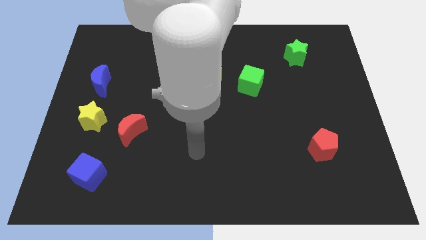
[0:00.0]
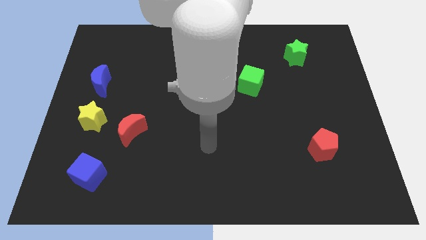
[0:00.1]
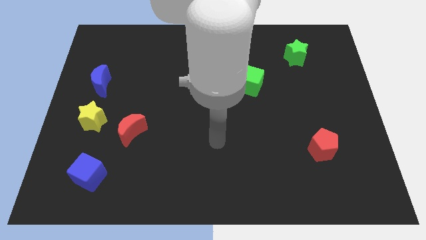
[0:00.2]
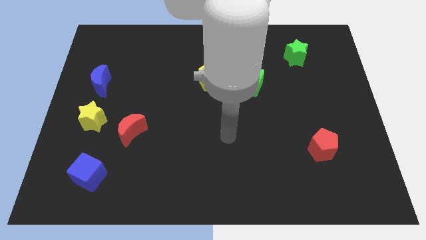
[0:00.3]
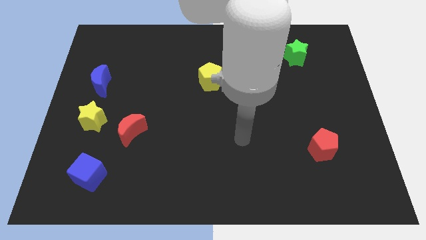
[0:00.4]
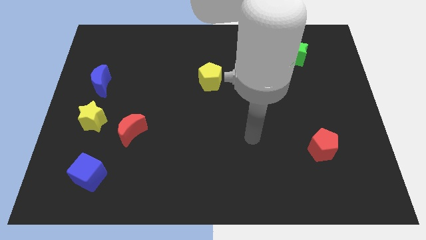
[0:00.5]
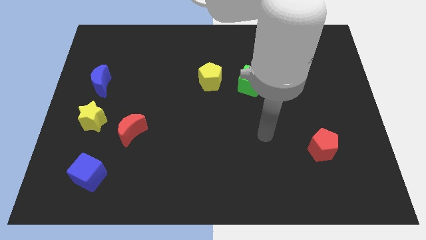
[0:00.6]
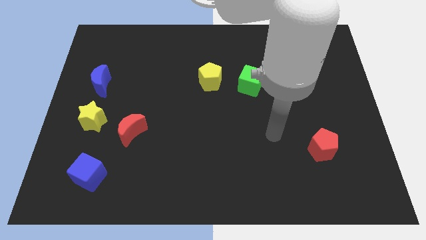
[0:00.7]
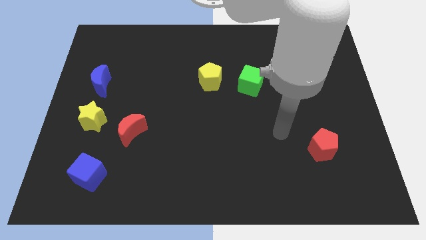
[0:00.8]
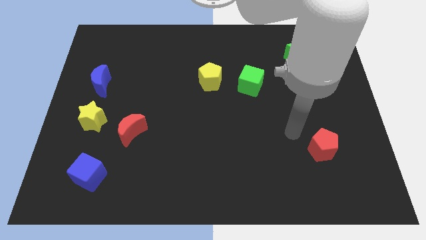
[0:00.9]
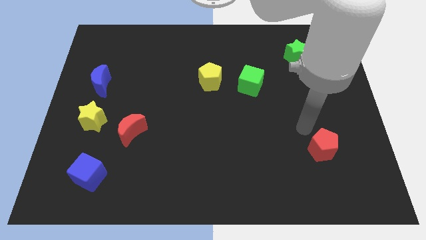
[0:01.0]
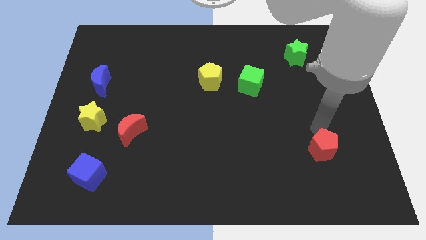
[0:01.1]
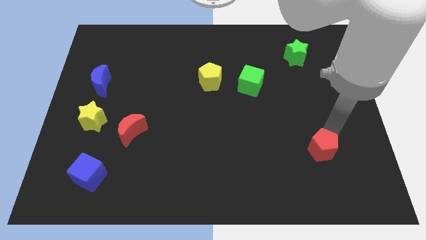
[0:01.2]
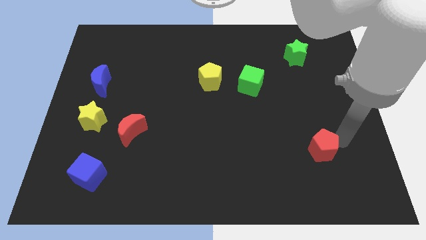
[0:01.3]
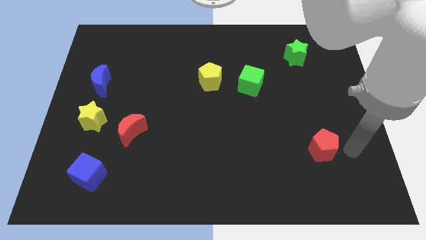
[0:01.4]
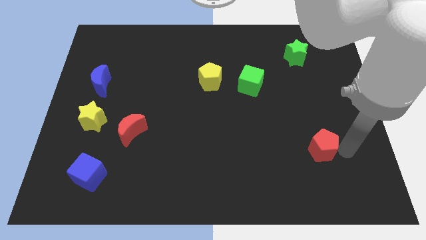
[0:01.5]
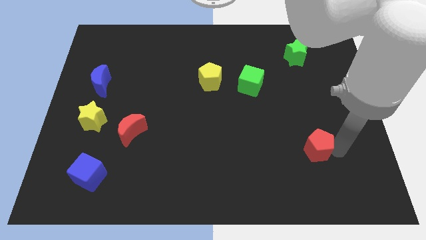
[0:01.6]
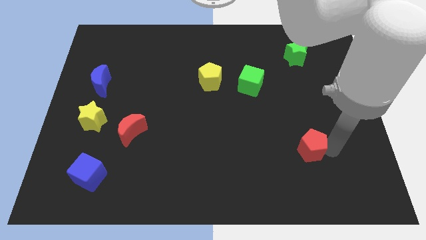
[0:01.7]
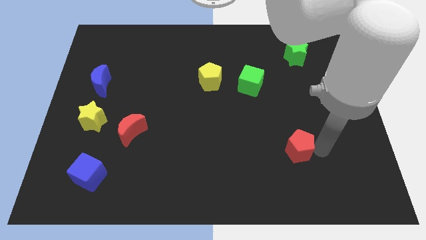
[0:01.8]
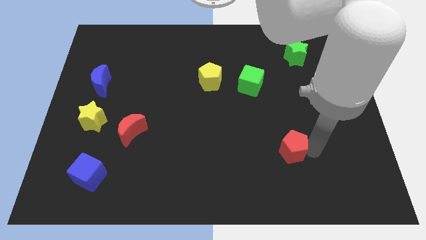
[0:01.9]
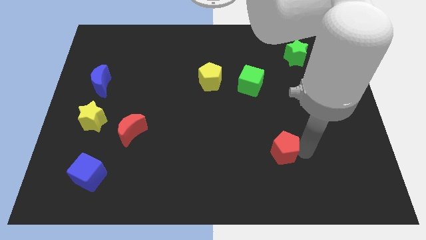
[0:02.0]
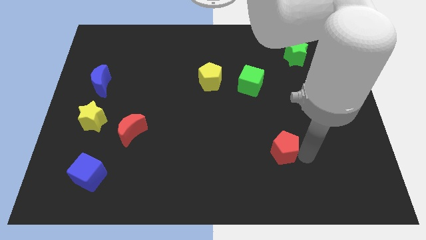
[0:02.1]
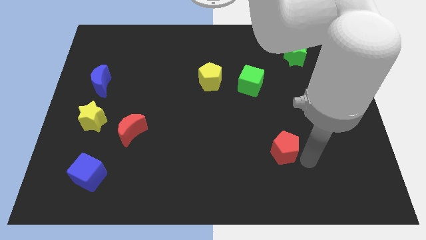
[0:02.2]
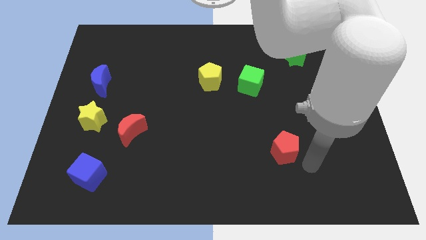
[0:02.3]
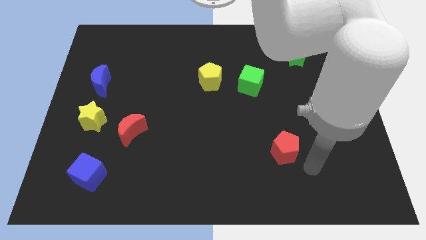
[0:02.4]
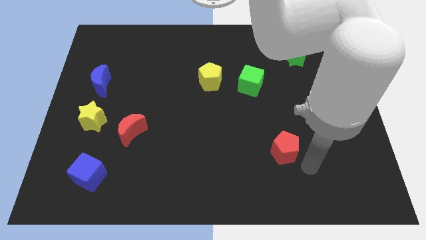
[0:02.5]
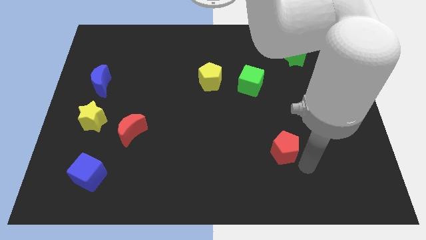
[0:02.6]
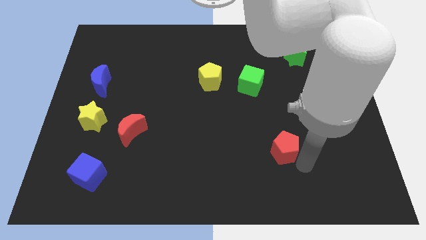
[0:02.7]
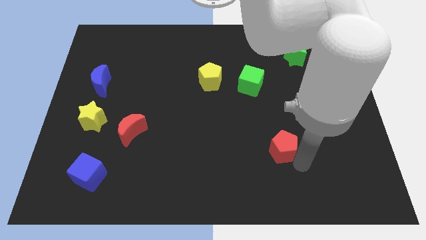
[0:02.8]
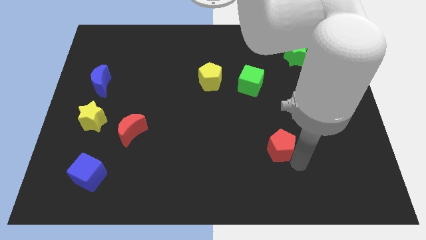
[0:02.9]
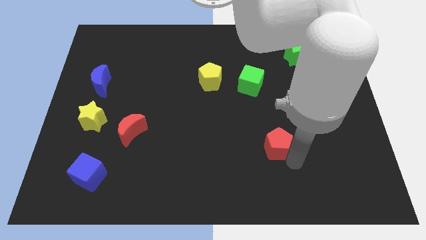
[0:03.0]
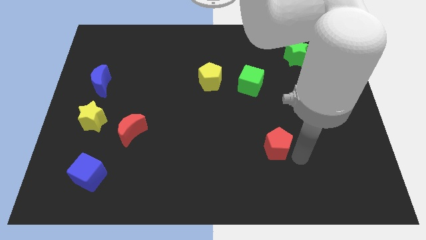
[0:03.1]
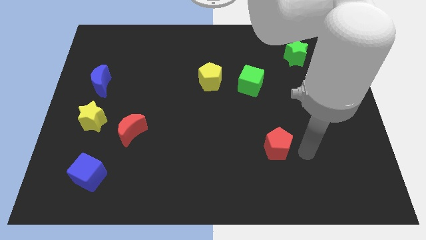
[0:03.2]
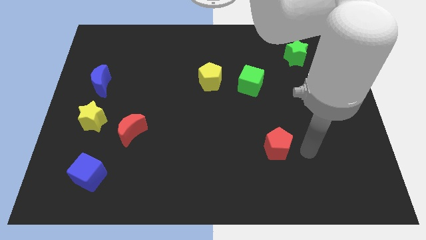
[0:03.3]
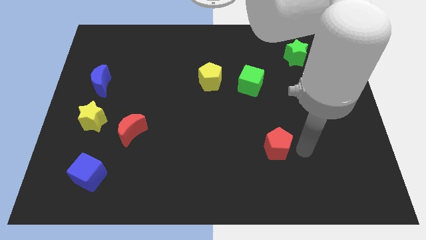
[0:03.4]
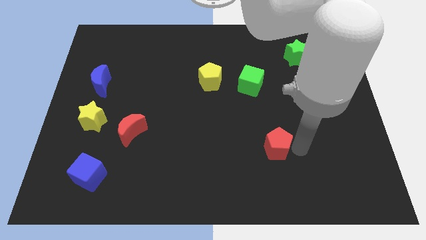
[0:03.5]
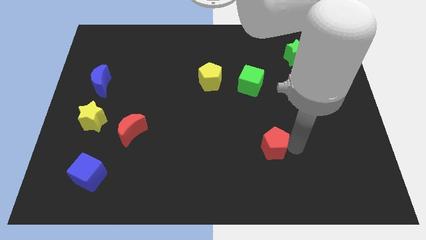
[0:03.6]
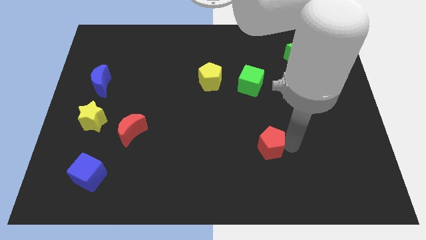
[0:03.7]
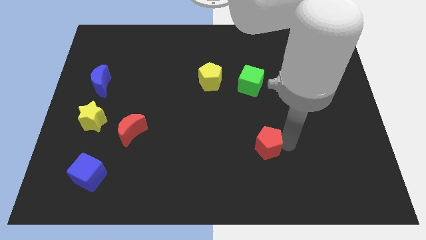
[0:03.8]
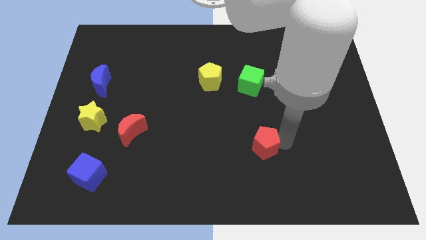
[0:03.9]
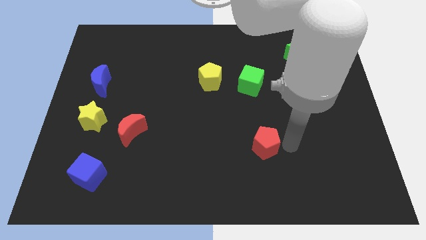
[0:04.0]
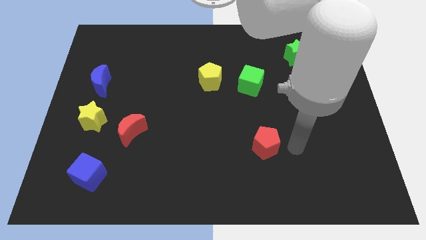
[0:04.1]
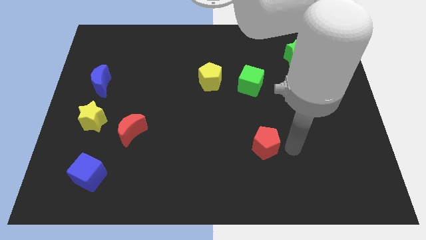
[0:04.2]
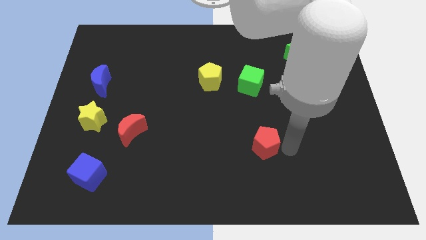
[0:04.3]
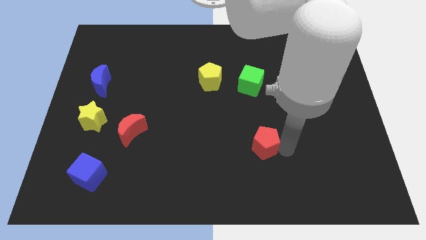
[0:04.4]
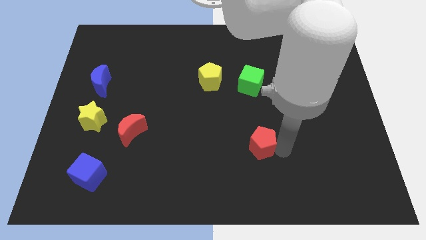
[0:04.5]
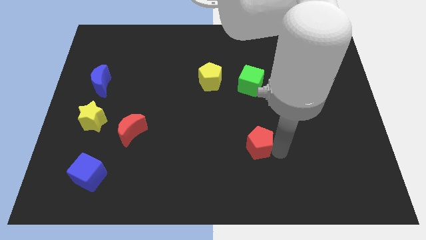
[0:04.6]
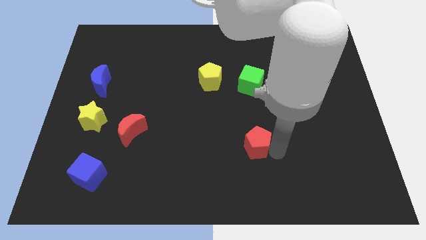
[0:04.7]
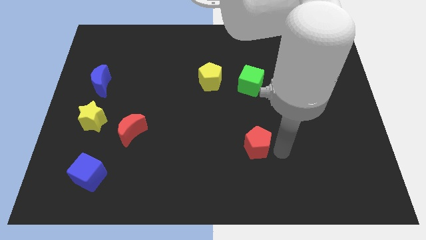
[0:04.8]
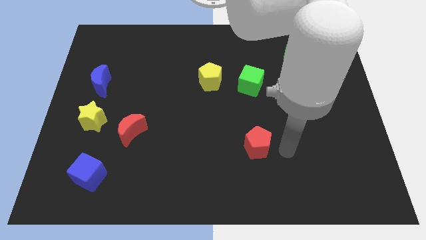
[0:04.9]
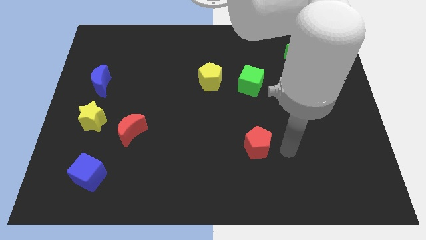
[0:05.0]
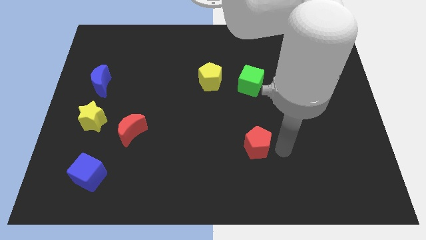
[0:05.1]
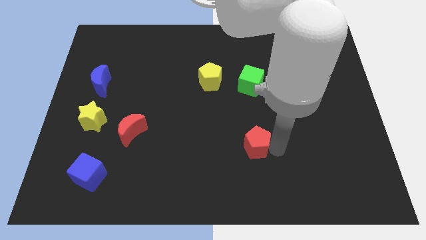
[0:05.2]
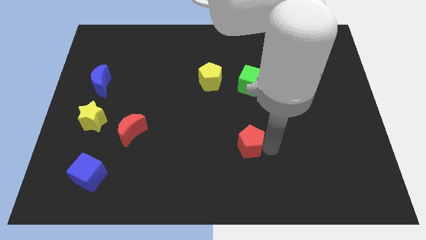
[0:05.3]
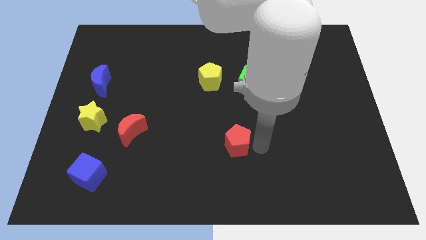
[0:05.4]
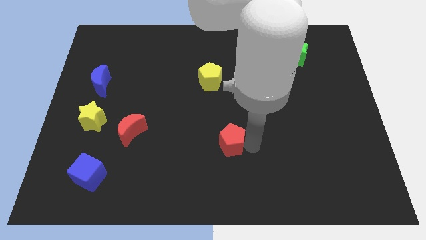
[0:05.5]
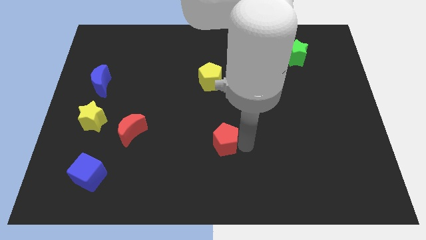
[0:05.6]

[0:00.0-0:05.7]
move the red pentagon left

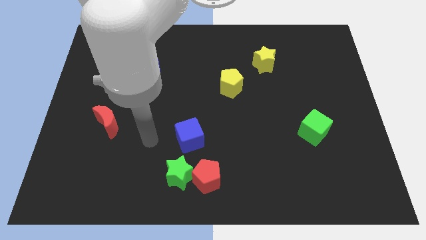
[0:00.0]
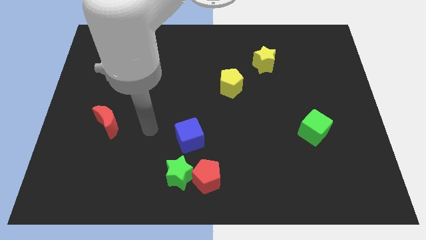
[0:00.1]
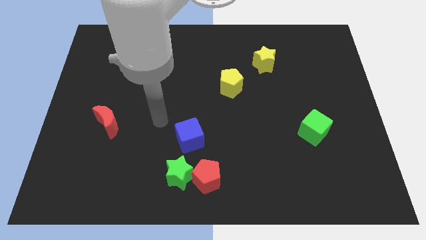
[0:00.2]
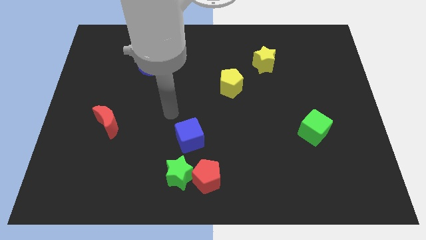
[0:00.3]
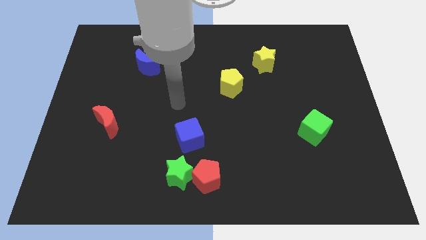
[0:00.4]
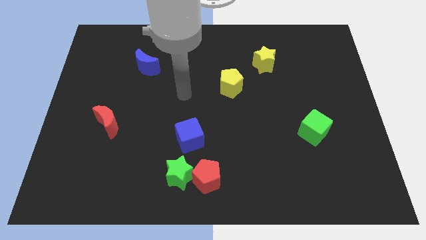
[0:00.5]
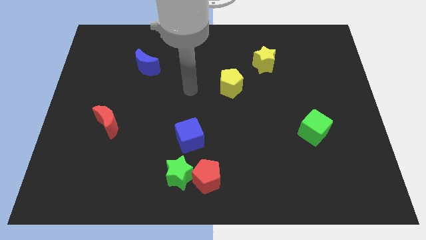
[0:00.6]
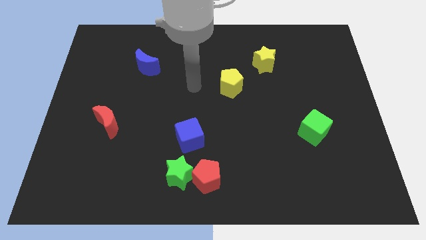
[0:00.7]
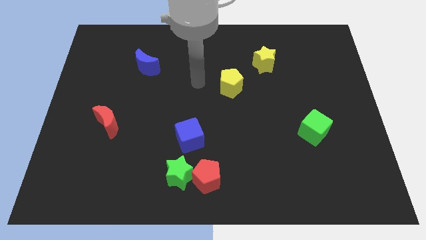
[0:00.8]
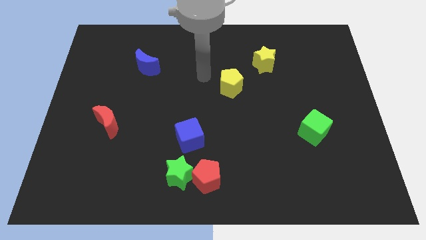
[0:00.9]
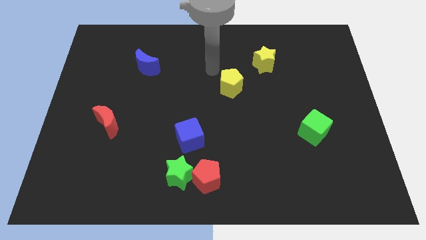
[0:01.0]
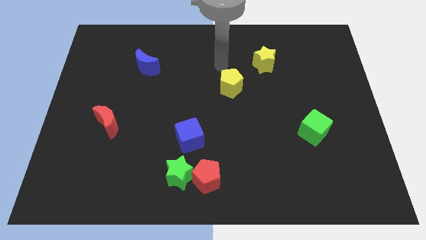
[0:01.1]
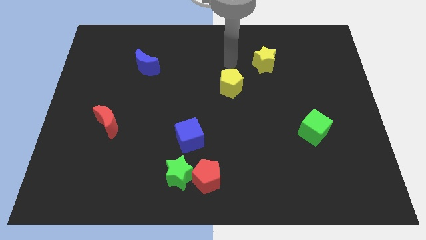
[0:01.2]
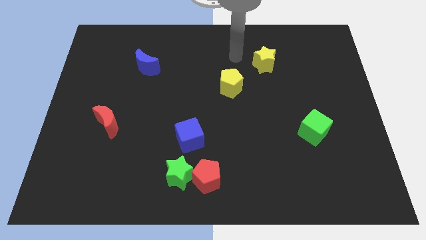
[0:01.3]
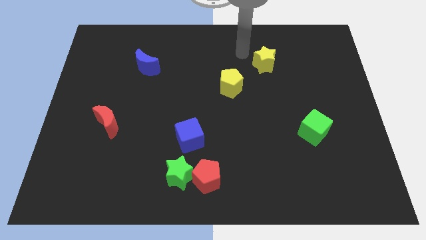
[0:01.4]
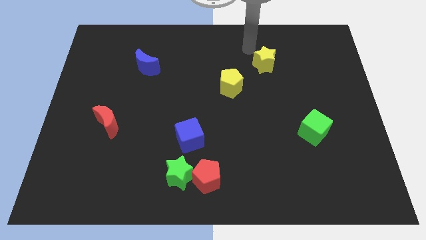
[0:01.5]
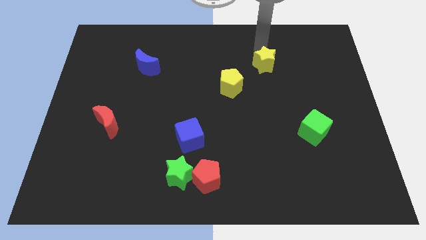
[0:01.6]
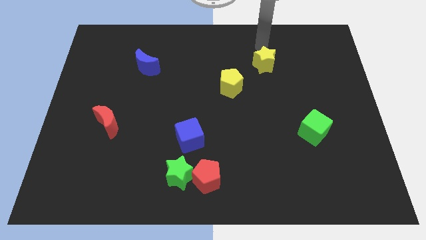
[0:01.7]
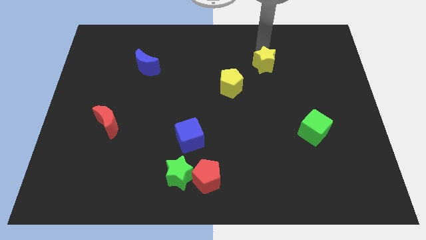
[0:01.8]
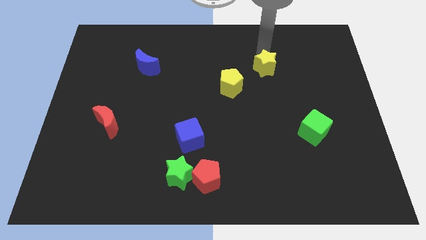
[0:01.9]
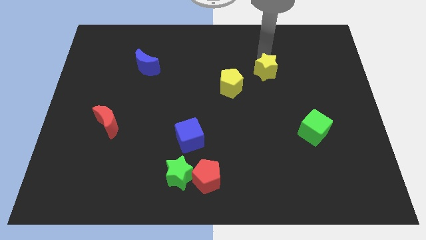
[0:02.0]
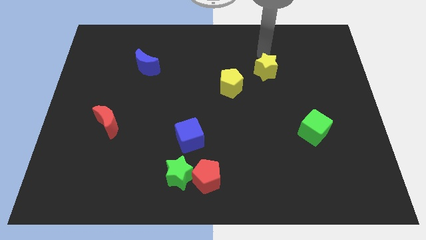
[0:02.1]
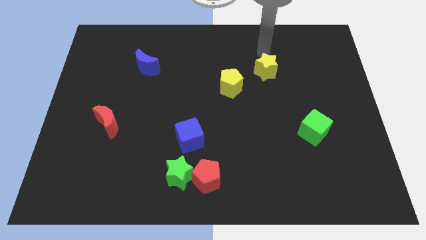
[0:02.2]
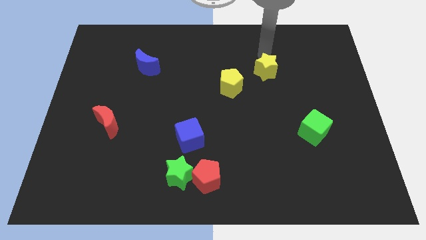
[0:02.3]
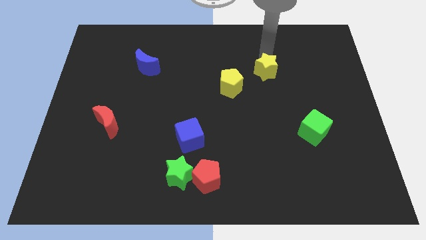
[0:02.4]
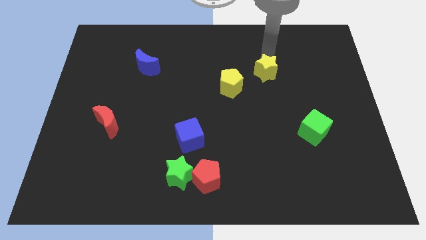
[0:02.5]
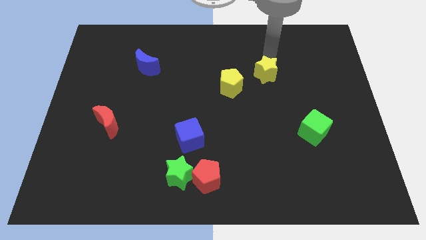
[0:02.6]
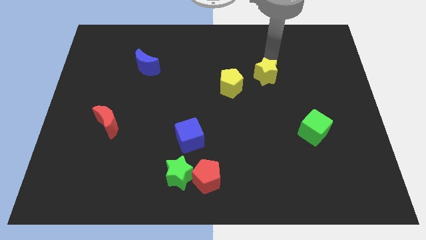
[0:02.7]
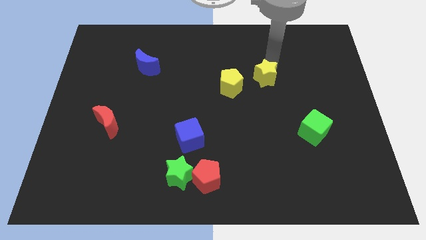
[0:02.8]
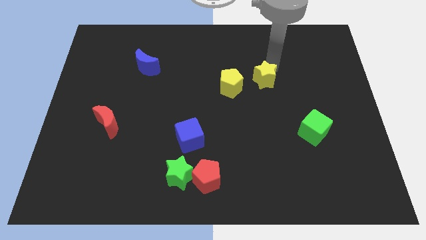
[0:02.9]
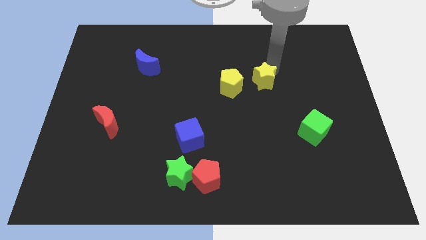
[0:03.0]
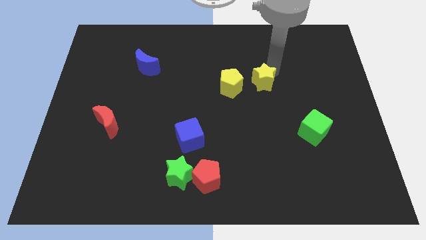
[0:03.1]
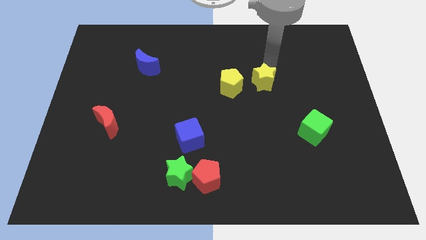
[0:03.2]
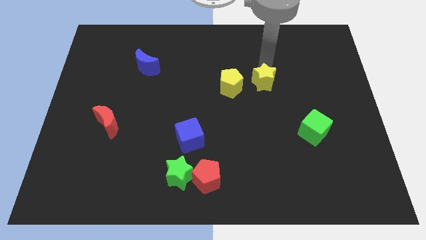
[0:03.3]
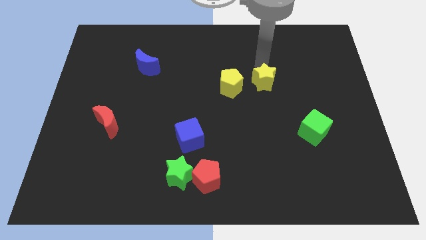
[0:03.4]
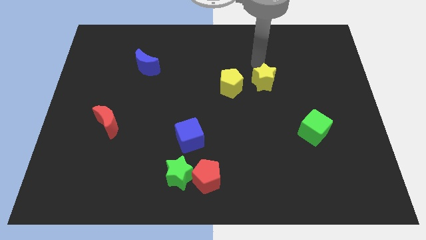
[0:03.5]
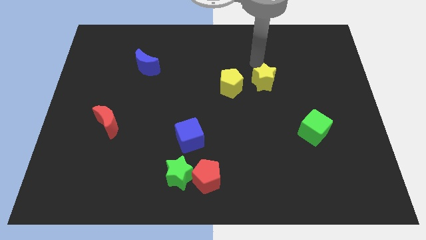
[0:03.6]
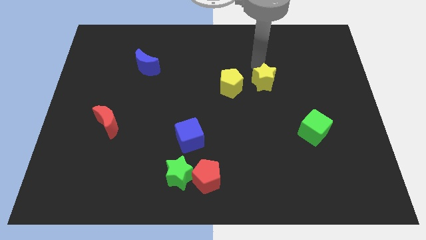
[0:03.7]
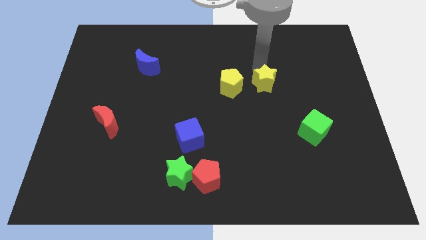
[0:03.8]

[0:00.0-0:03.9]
slightly move the yellow star down
